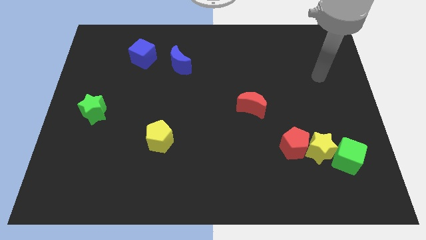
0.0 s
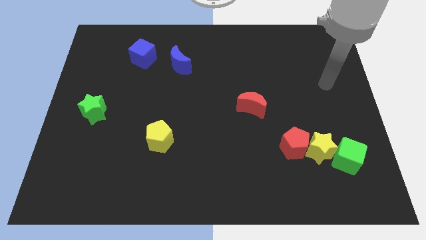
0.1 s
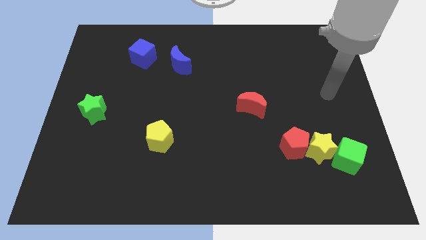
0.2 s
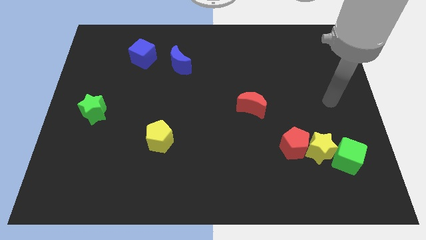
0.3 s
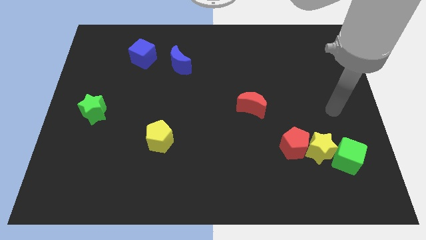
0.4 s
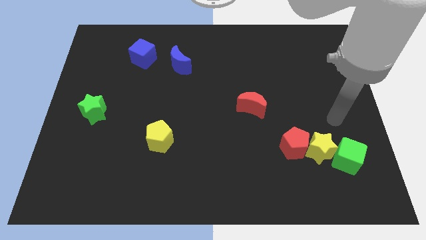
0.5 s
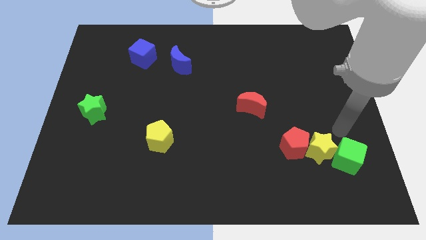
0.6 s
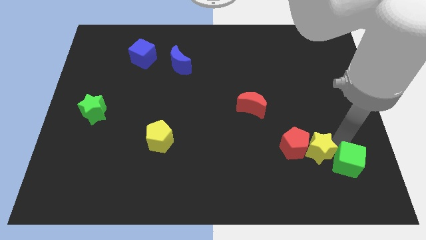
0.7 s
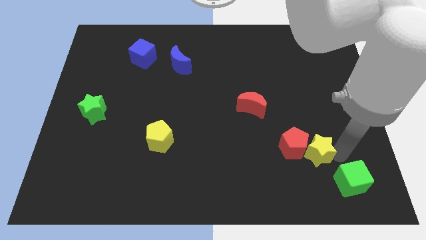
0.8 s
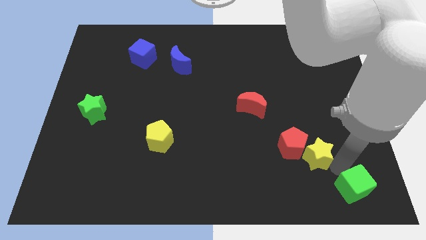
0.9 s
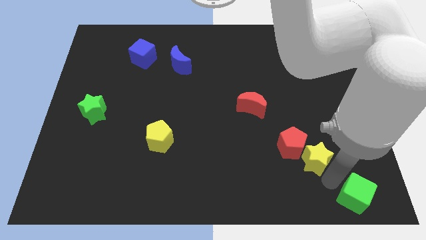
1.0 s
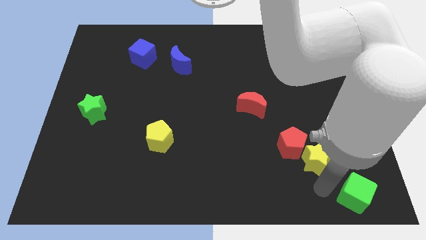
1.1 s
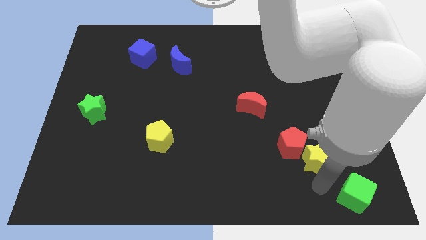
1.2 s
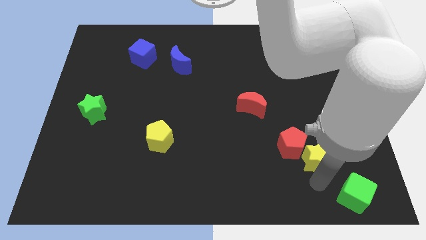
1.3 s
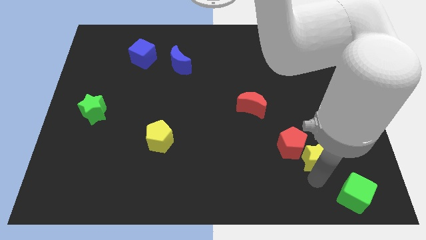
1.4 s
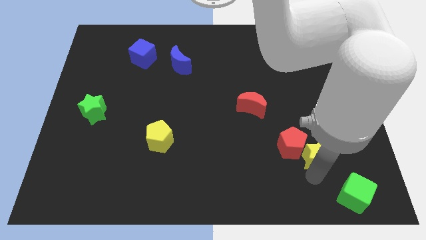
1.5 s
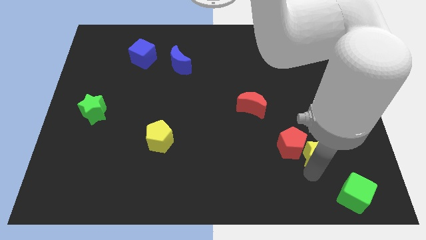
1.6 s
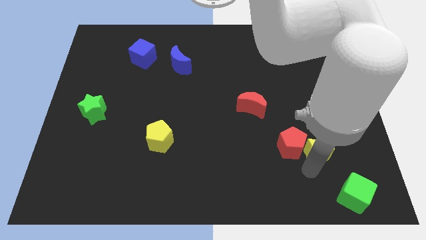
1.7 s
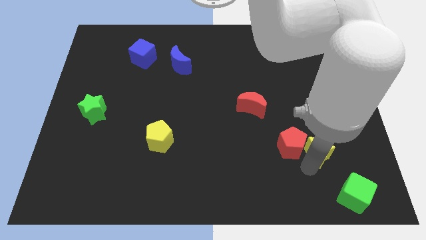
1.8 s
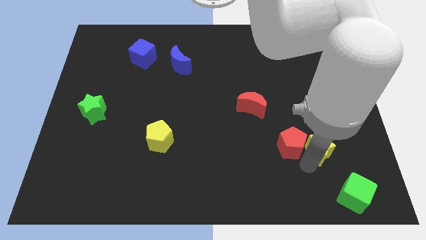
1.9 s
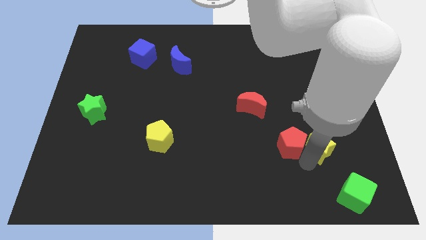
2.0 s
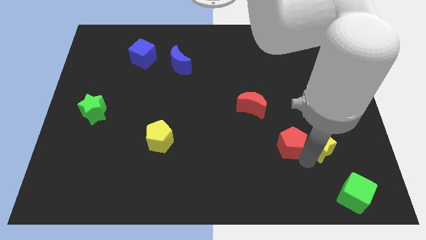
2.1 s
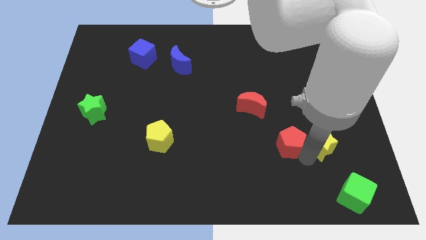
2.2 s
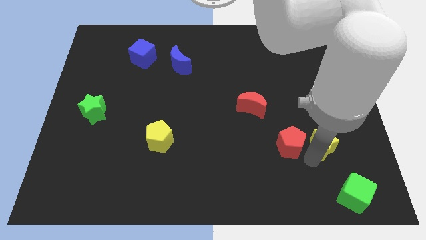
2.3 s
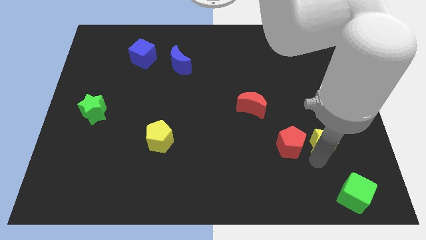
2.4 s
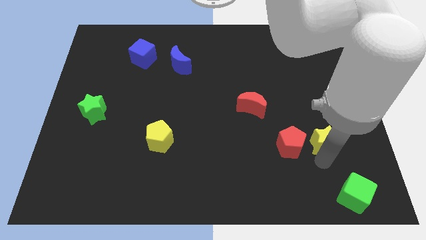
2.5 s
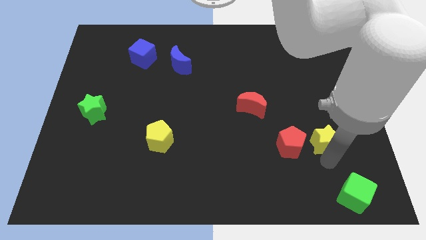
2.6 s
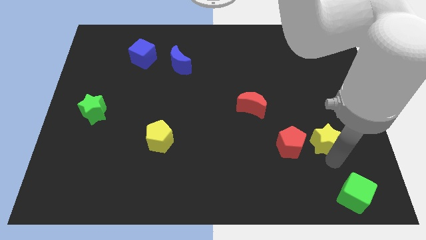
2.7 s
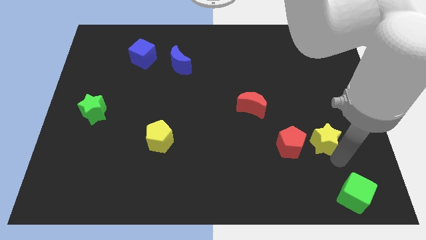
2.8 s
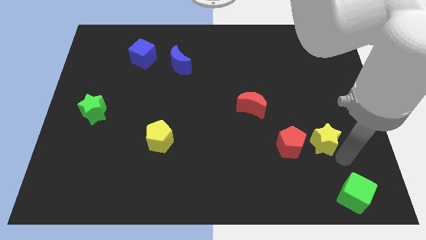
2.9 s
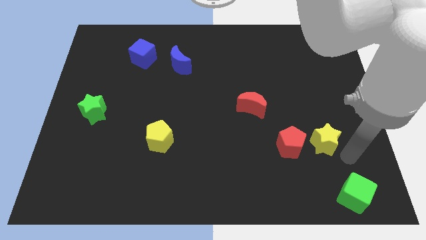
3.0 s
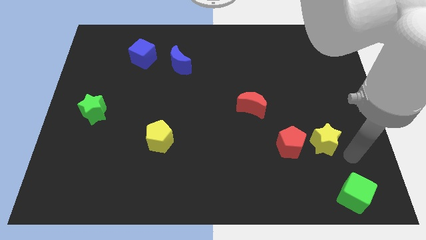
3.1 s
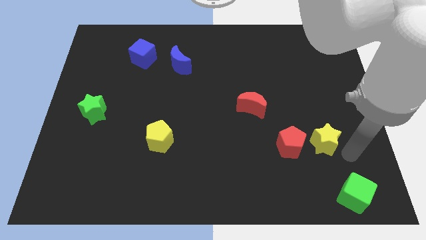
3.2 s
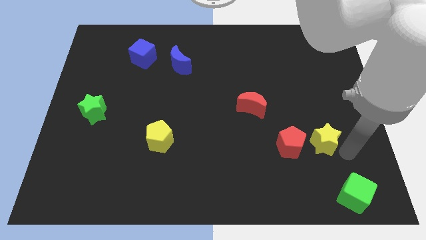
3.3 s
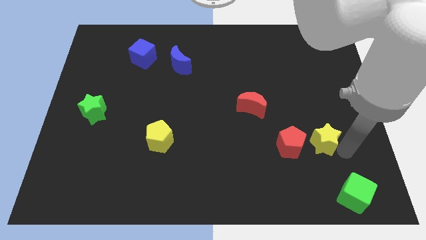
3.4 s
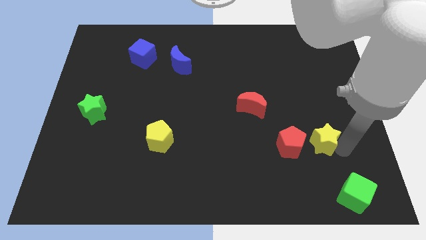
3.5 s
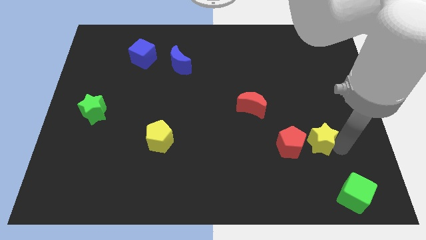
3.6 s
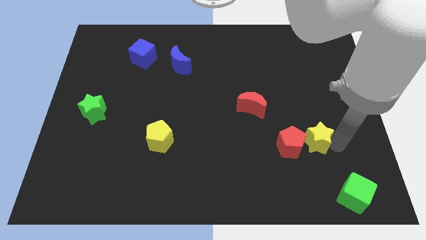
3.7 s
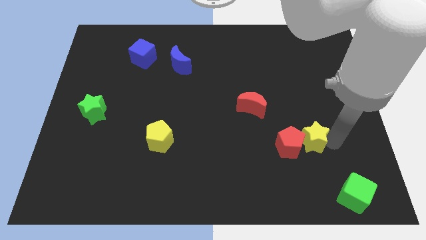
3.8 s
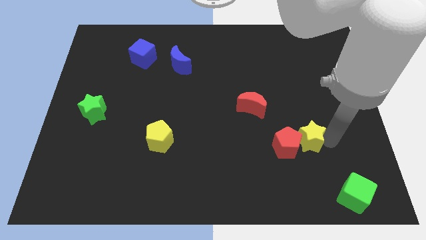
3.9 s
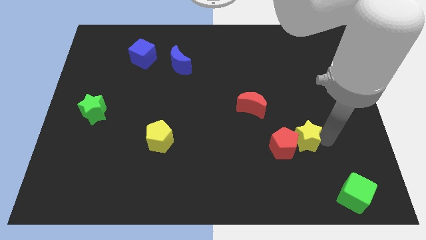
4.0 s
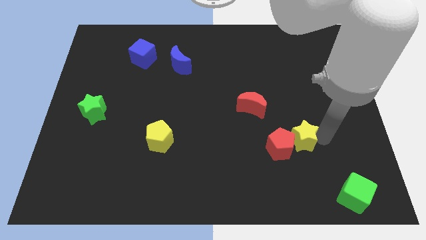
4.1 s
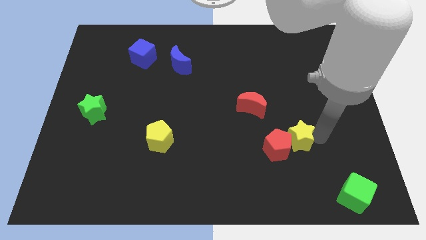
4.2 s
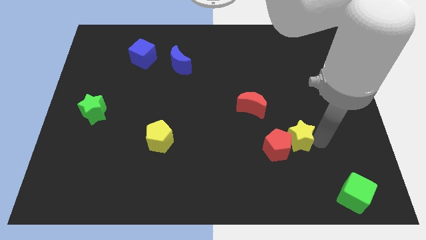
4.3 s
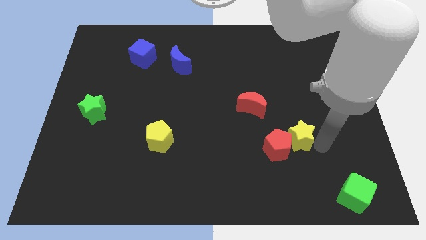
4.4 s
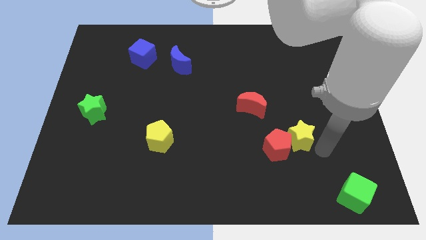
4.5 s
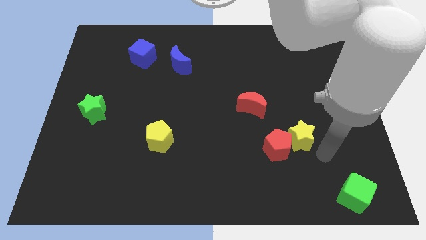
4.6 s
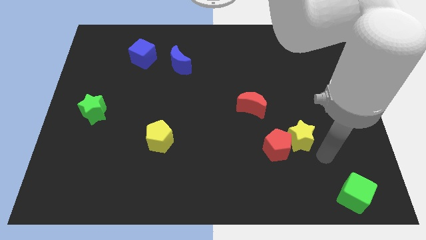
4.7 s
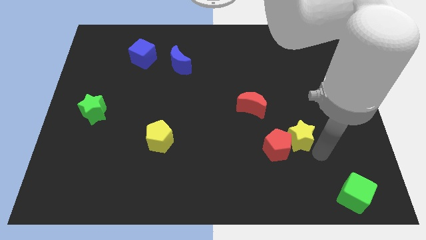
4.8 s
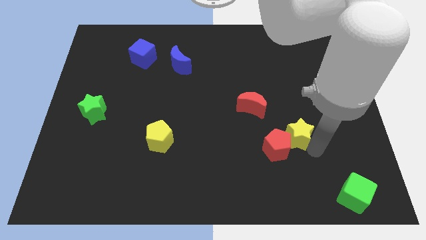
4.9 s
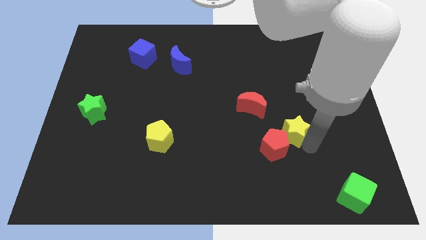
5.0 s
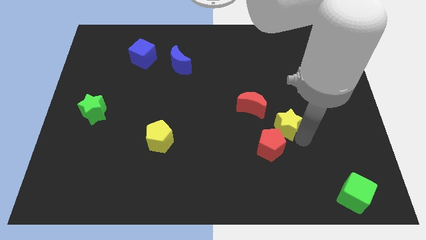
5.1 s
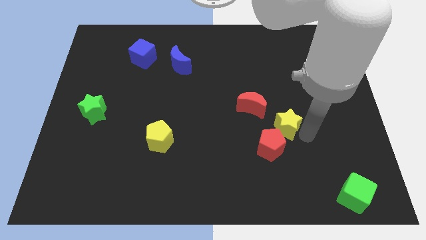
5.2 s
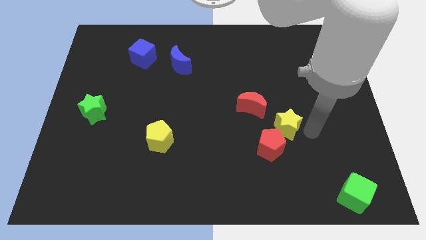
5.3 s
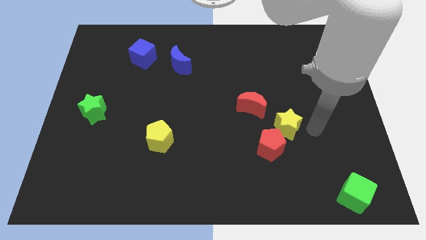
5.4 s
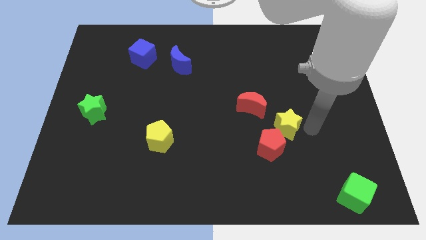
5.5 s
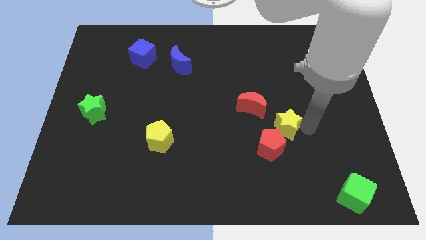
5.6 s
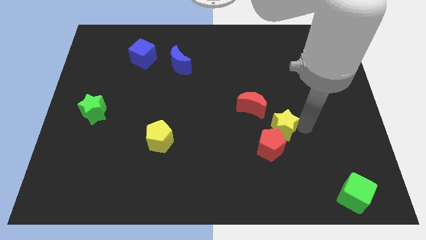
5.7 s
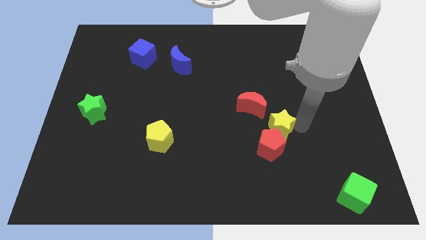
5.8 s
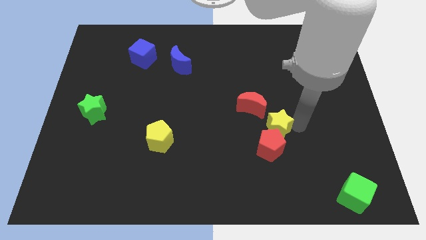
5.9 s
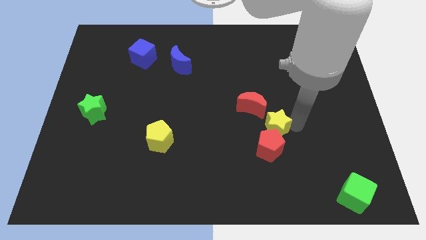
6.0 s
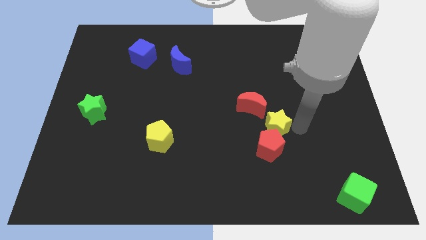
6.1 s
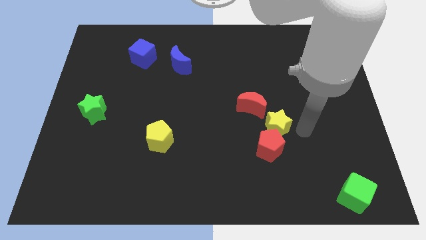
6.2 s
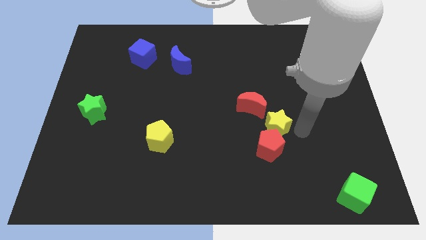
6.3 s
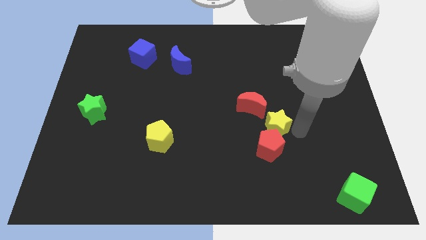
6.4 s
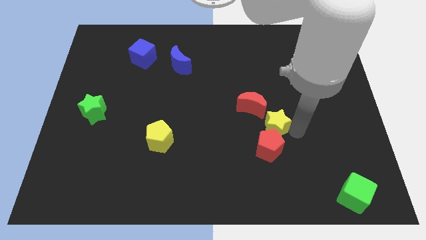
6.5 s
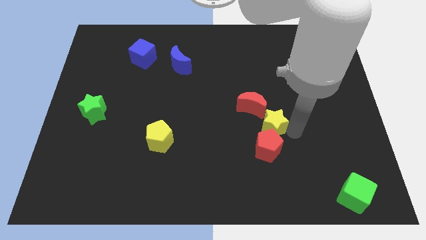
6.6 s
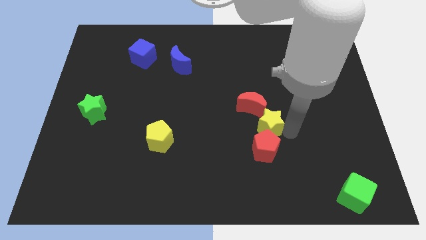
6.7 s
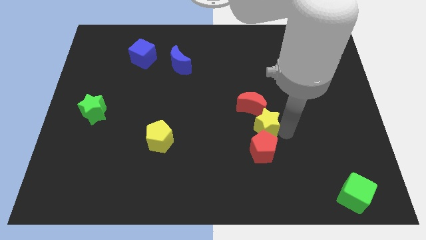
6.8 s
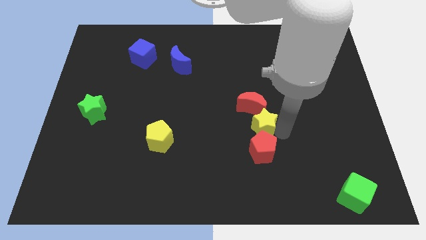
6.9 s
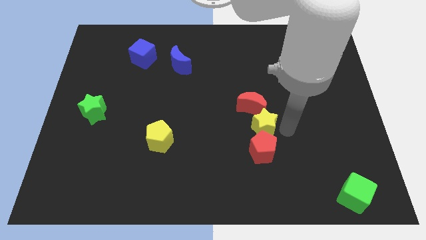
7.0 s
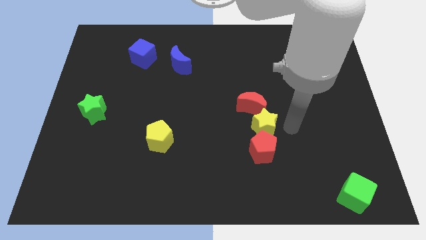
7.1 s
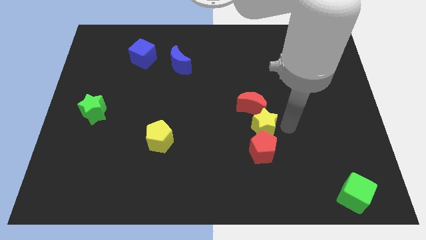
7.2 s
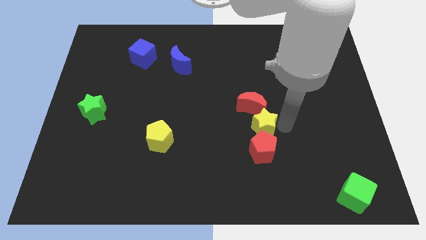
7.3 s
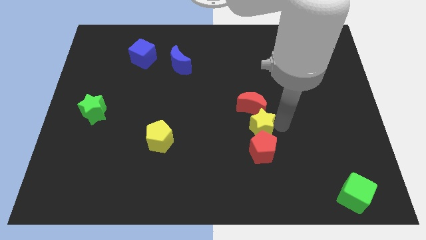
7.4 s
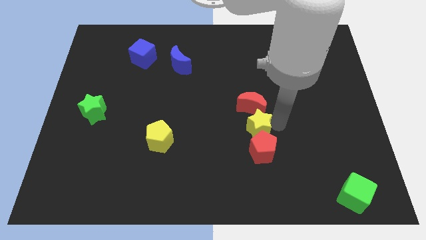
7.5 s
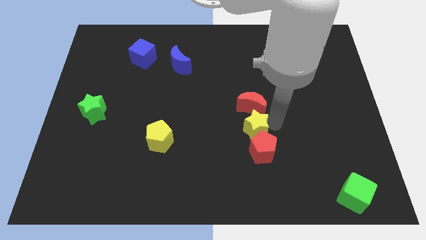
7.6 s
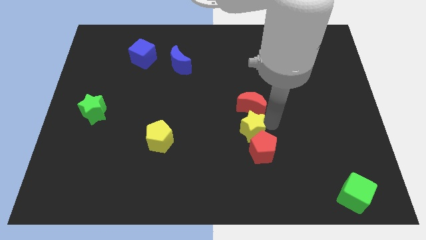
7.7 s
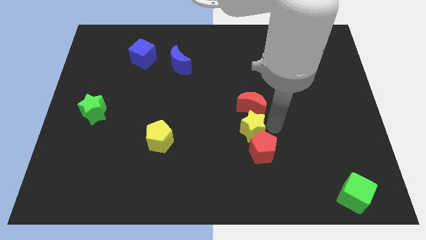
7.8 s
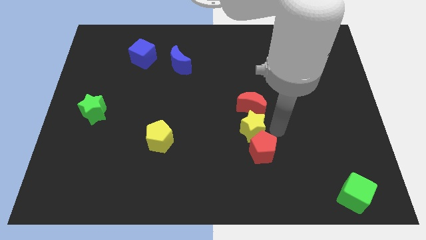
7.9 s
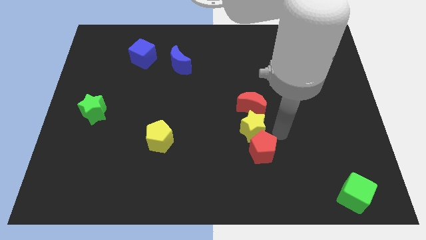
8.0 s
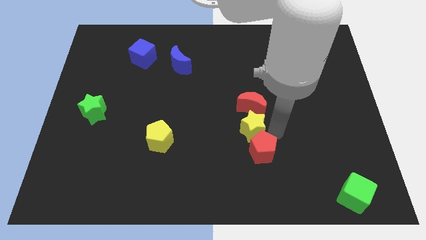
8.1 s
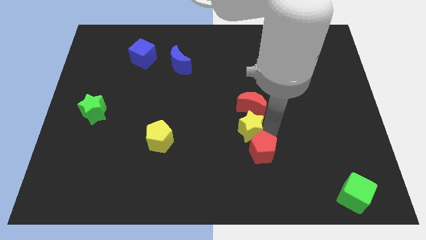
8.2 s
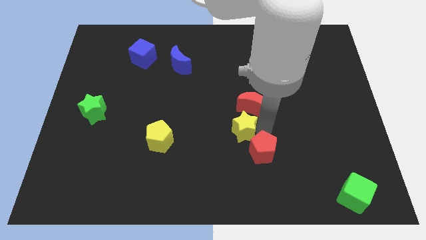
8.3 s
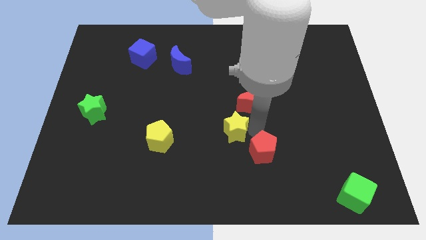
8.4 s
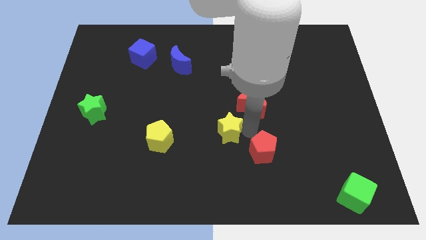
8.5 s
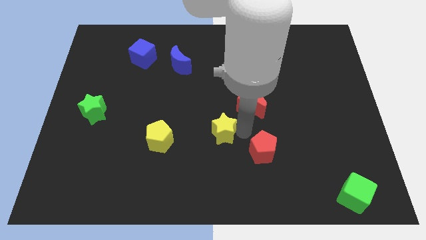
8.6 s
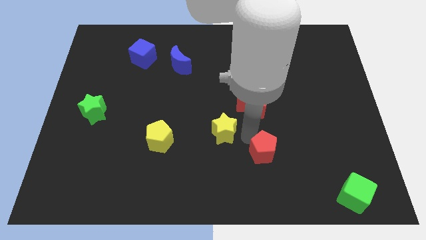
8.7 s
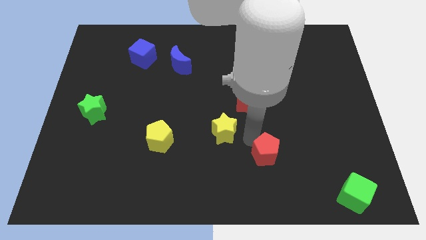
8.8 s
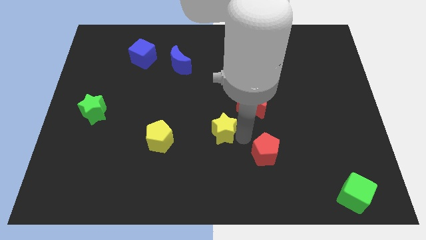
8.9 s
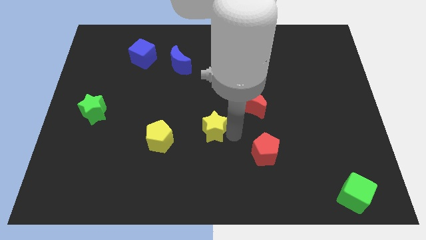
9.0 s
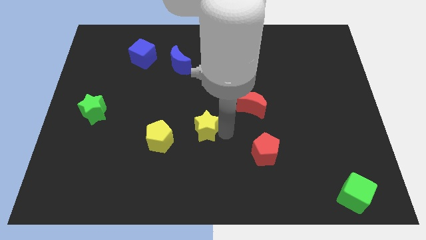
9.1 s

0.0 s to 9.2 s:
slide the yellow star to the top right of the yellow pentagon
